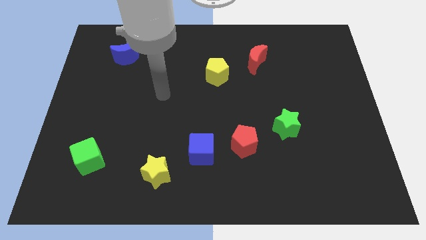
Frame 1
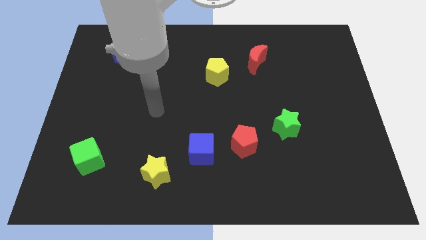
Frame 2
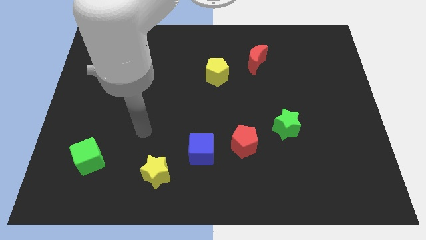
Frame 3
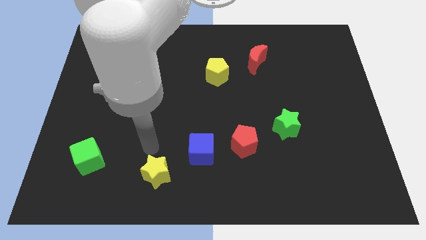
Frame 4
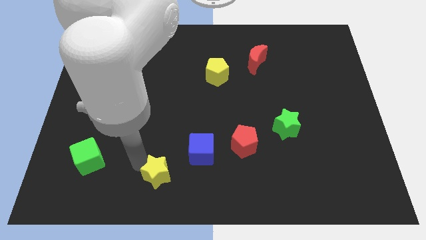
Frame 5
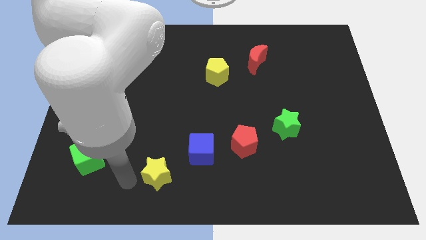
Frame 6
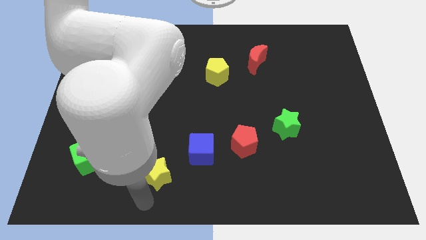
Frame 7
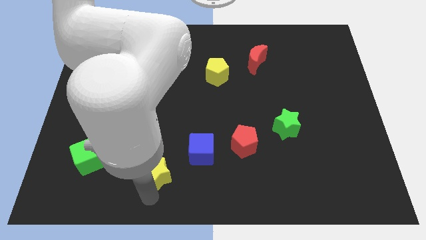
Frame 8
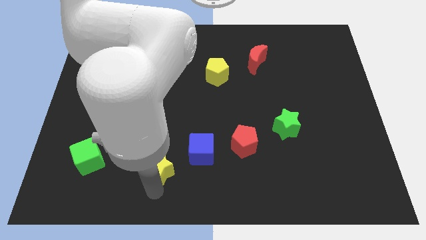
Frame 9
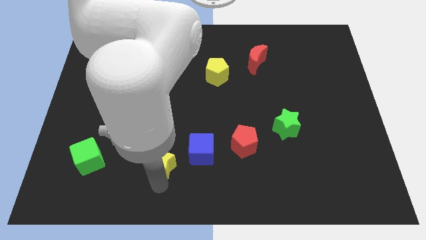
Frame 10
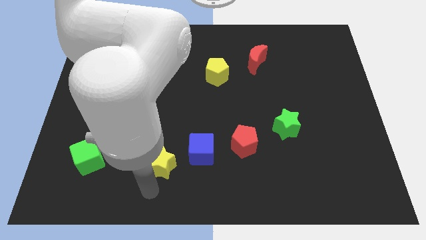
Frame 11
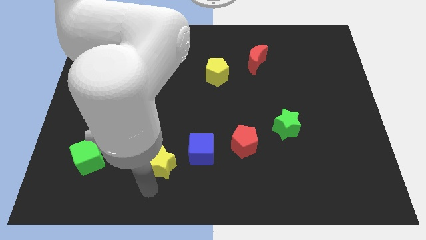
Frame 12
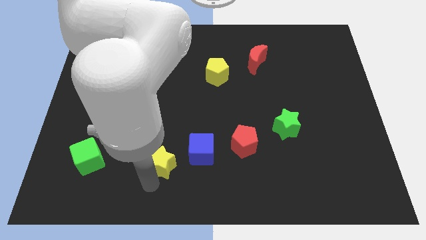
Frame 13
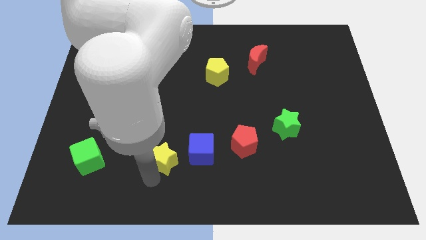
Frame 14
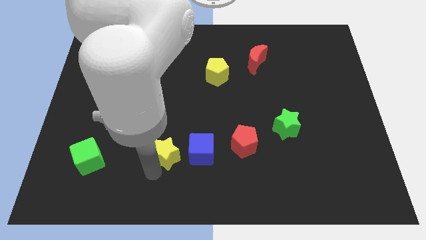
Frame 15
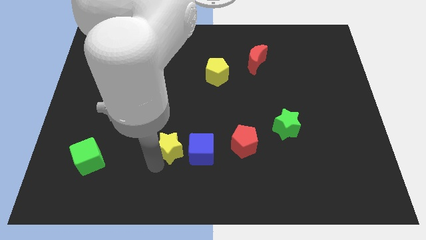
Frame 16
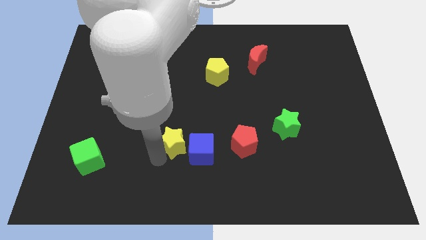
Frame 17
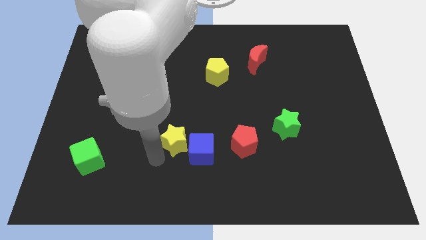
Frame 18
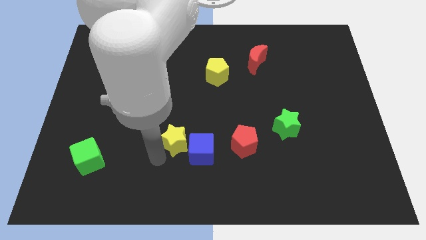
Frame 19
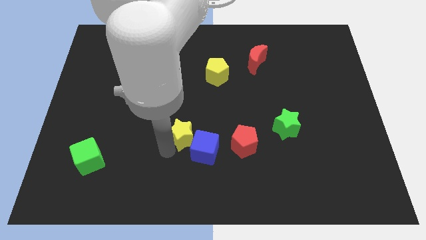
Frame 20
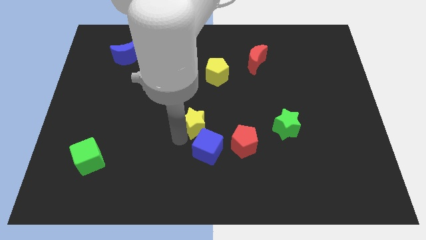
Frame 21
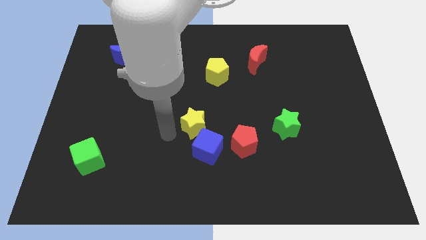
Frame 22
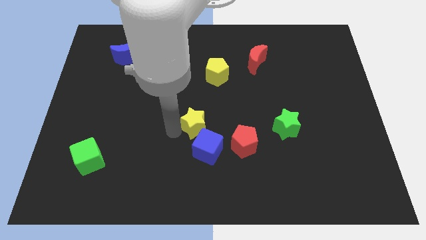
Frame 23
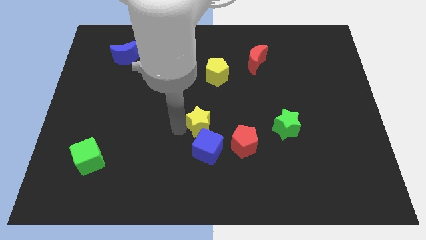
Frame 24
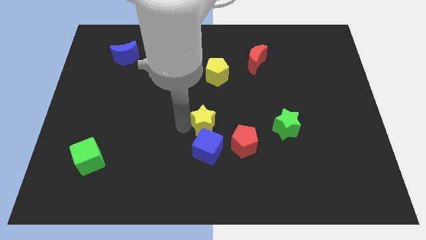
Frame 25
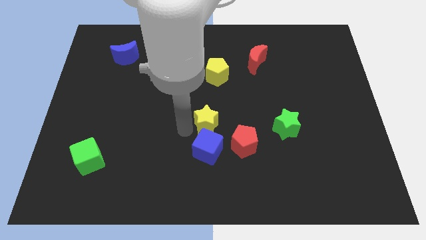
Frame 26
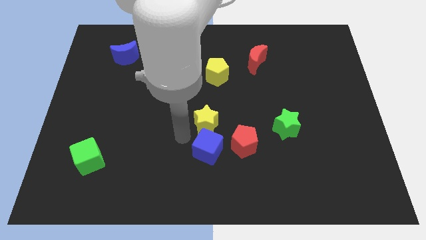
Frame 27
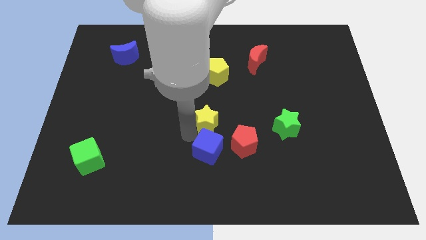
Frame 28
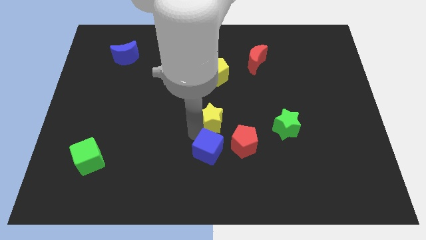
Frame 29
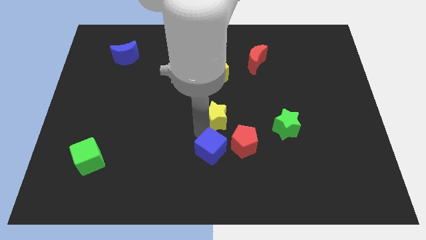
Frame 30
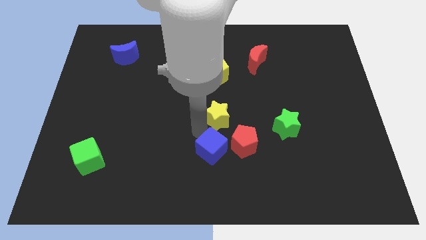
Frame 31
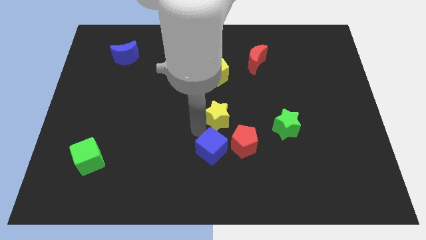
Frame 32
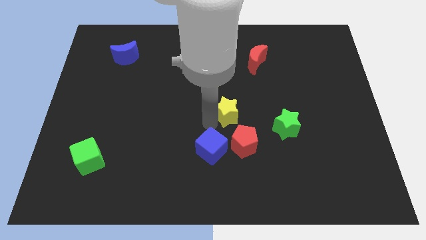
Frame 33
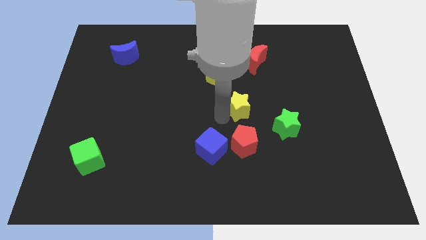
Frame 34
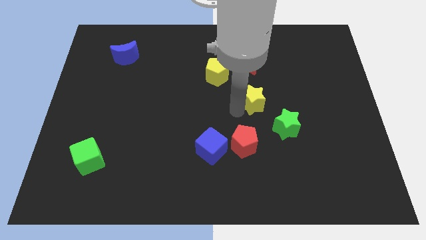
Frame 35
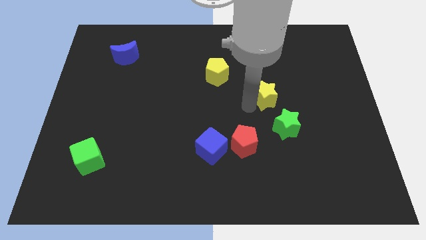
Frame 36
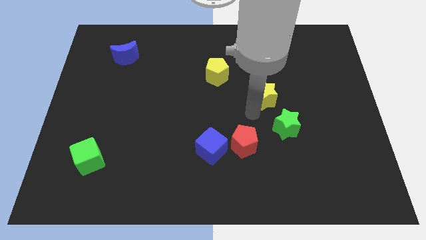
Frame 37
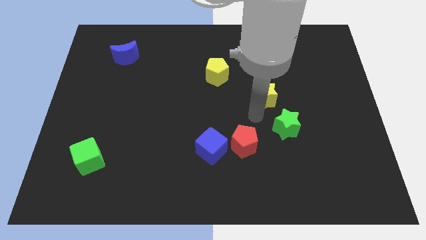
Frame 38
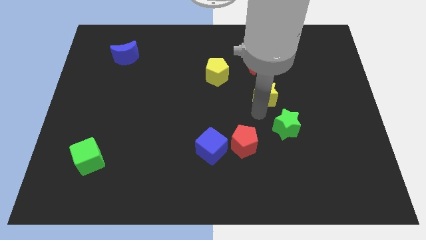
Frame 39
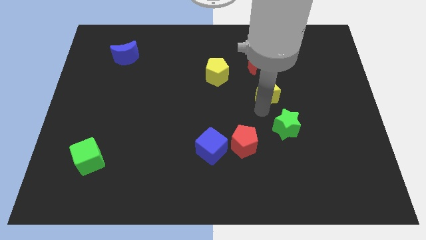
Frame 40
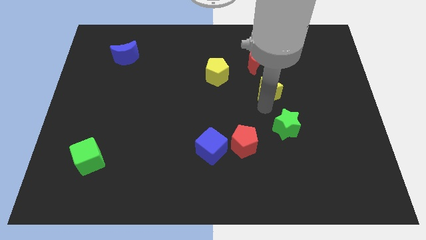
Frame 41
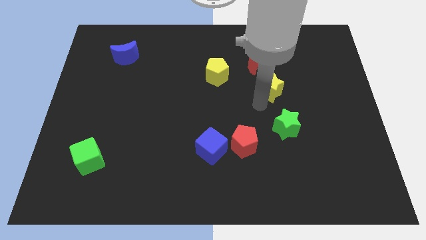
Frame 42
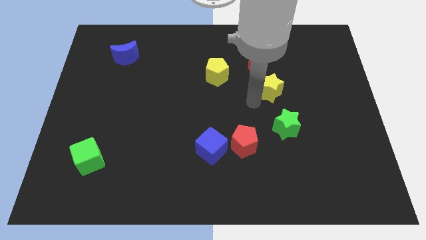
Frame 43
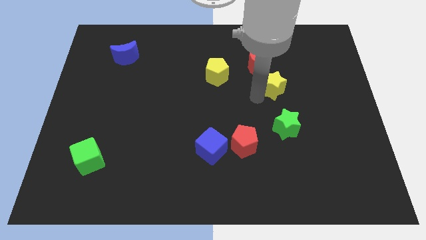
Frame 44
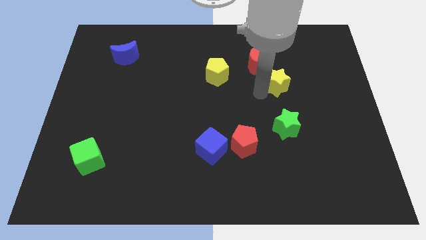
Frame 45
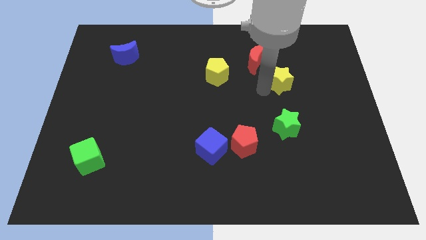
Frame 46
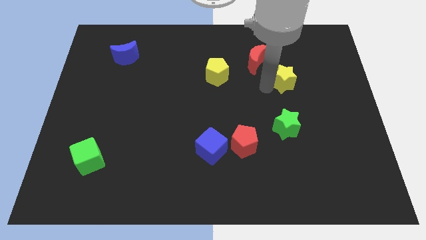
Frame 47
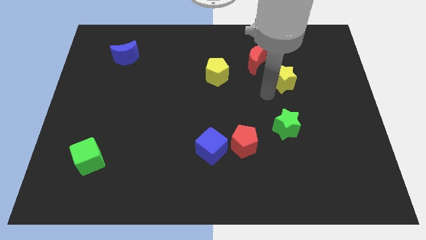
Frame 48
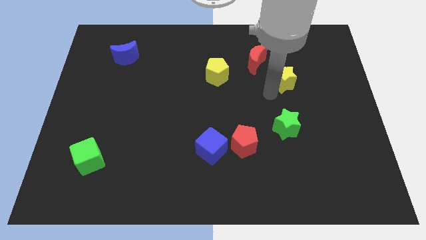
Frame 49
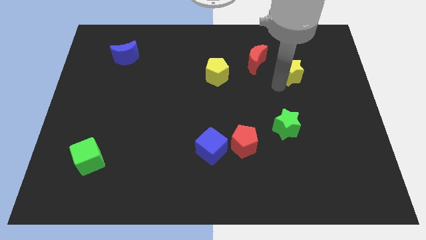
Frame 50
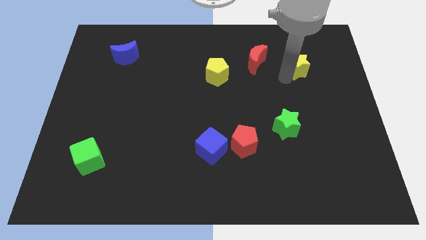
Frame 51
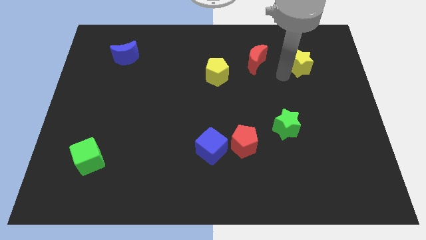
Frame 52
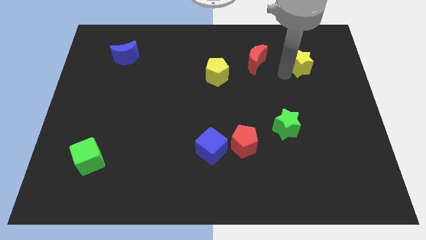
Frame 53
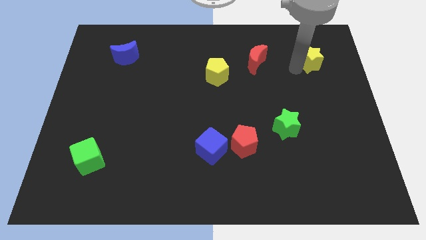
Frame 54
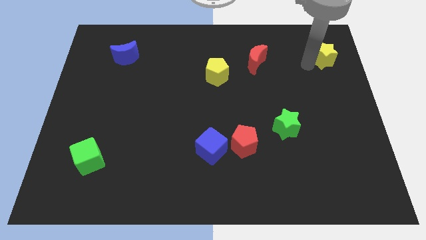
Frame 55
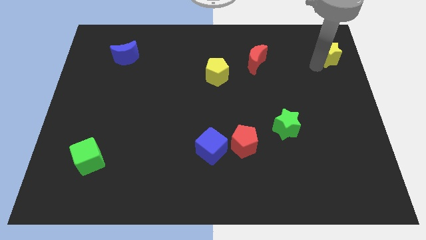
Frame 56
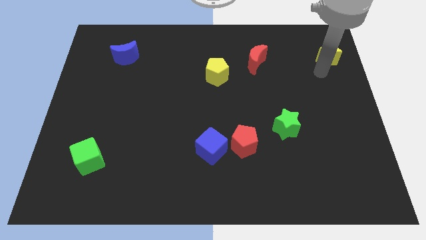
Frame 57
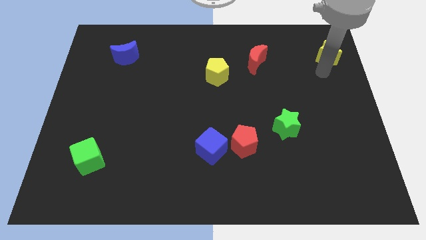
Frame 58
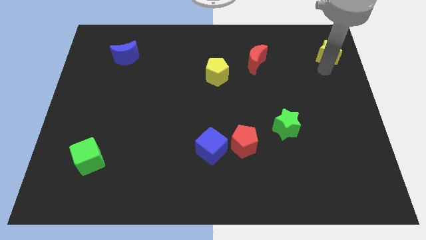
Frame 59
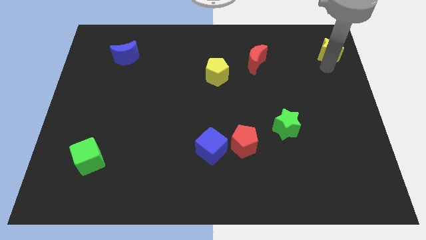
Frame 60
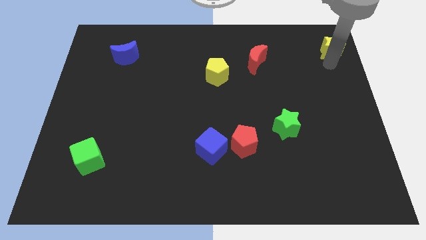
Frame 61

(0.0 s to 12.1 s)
put the yellow star to the upper right corner
